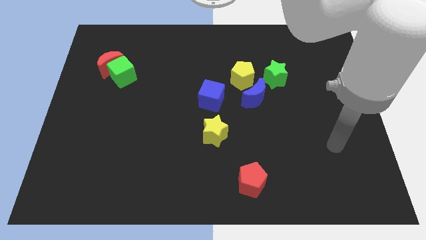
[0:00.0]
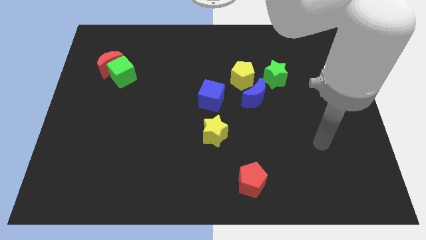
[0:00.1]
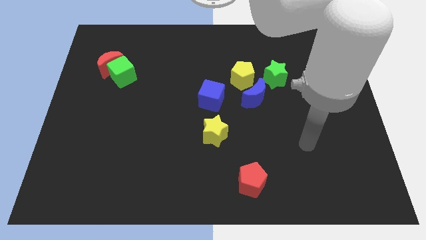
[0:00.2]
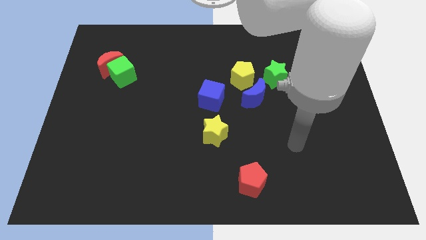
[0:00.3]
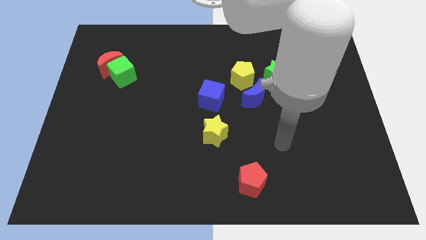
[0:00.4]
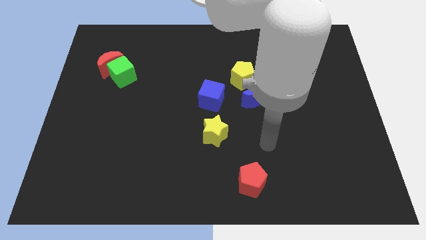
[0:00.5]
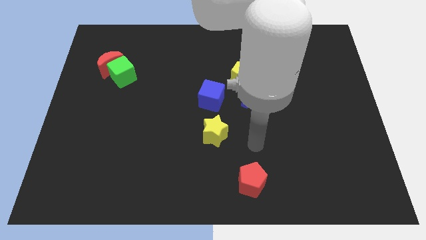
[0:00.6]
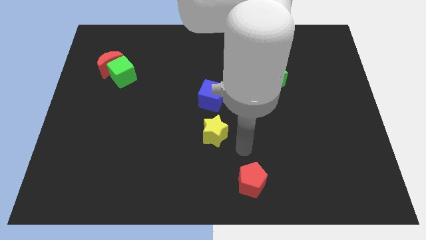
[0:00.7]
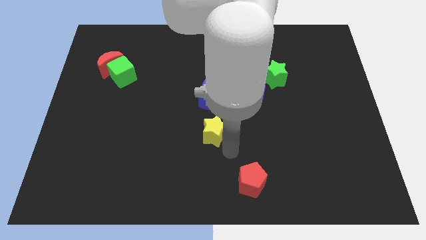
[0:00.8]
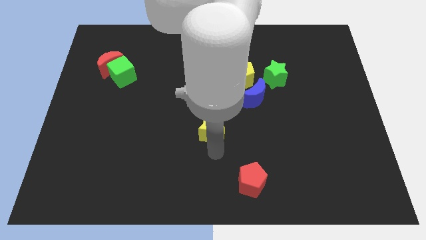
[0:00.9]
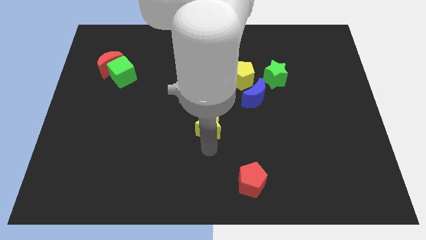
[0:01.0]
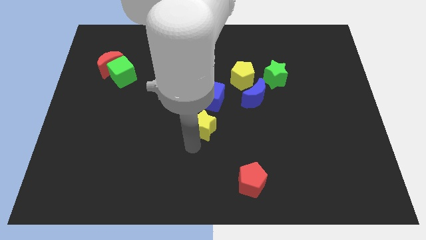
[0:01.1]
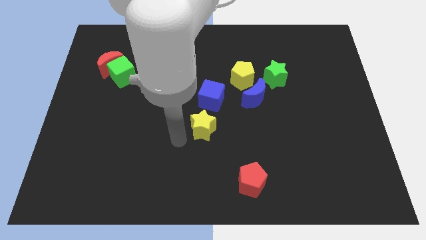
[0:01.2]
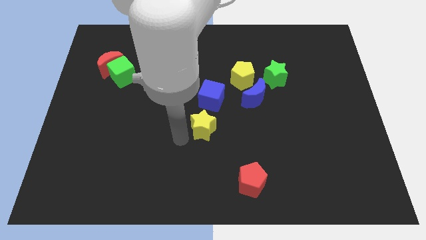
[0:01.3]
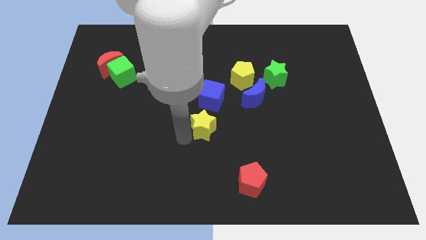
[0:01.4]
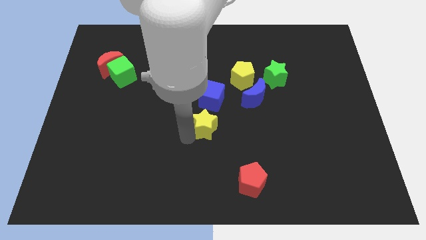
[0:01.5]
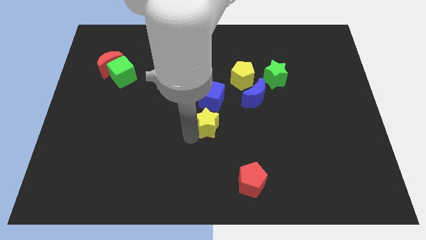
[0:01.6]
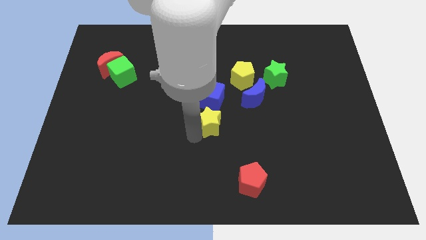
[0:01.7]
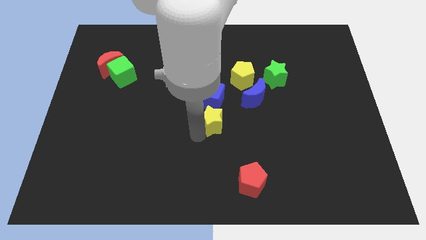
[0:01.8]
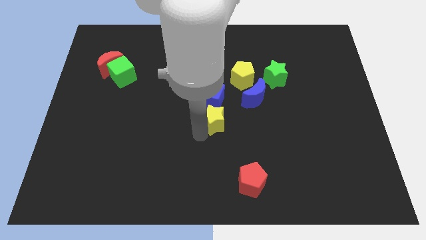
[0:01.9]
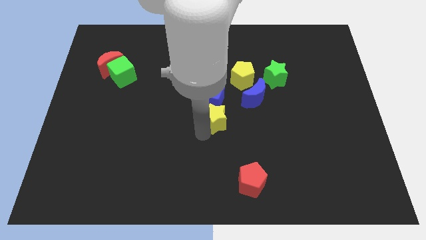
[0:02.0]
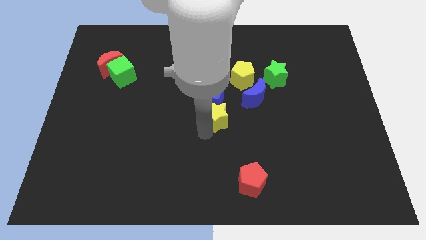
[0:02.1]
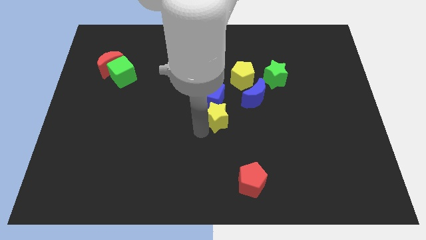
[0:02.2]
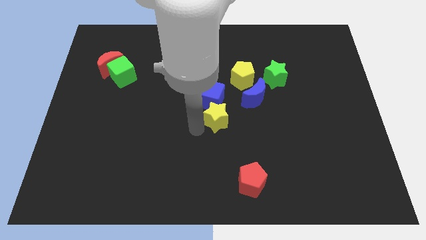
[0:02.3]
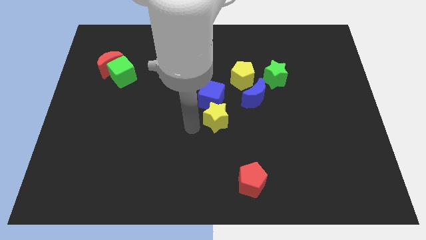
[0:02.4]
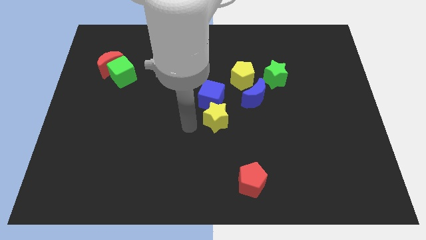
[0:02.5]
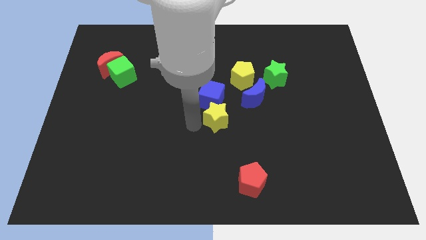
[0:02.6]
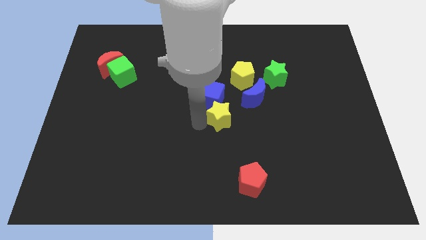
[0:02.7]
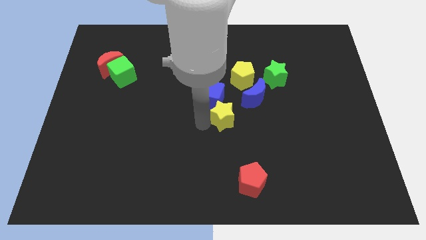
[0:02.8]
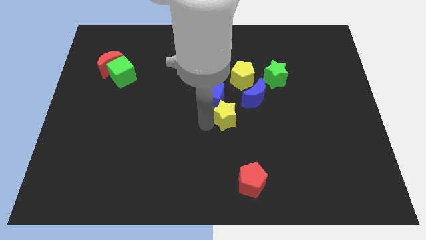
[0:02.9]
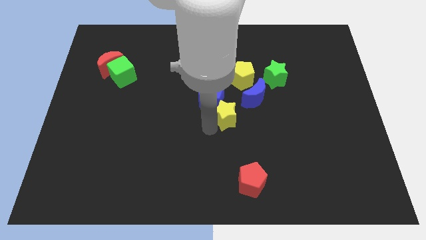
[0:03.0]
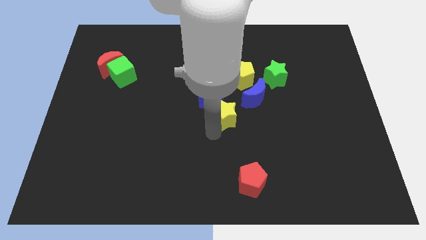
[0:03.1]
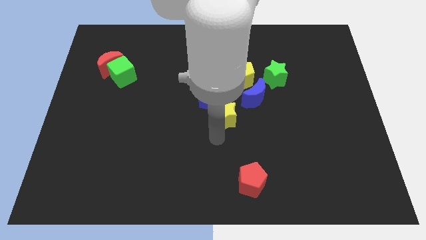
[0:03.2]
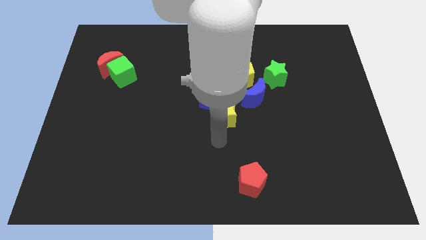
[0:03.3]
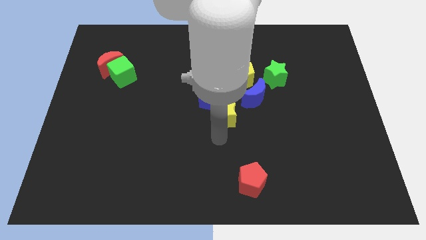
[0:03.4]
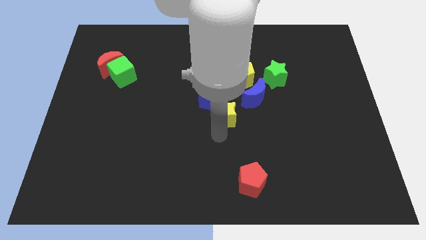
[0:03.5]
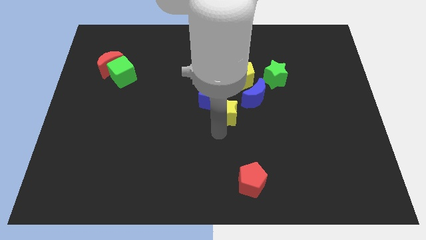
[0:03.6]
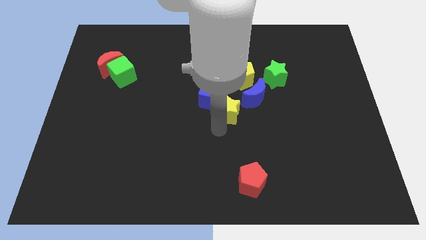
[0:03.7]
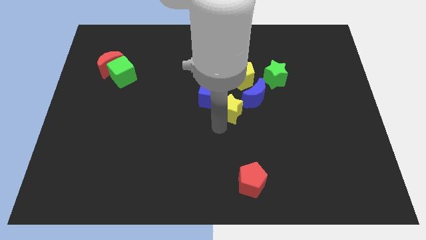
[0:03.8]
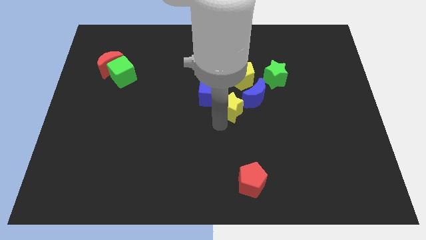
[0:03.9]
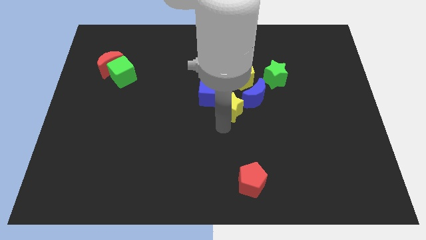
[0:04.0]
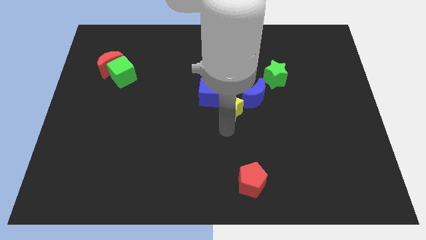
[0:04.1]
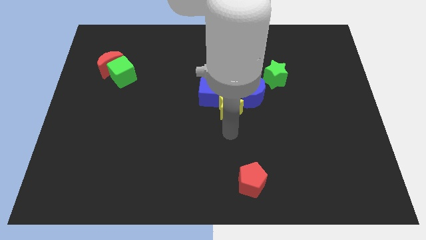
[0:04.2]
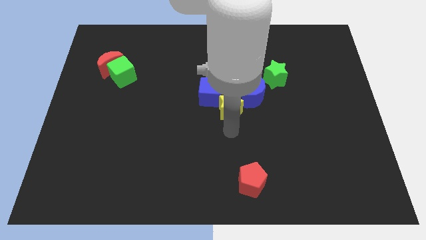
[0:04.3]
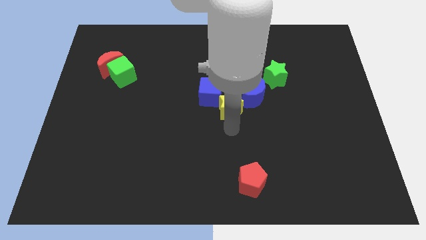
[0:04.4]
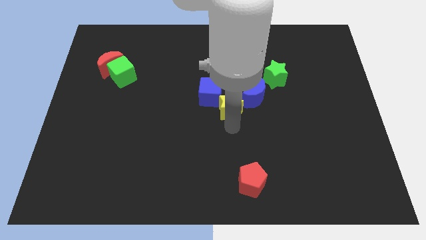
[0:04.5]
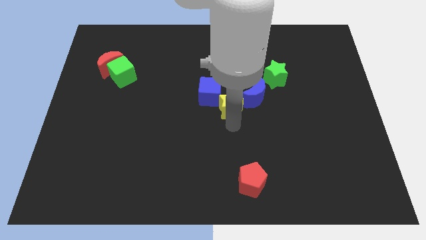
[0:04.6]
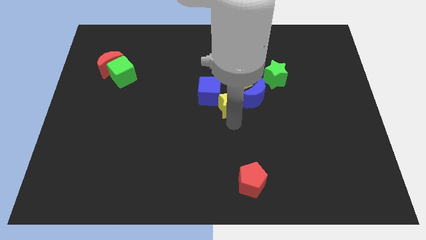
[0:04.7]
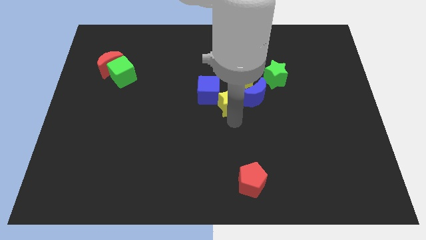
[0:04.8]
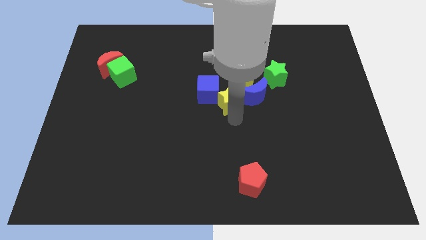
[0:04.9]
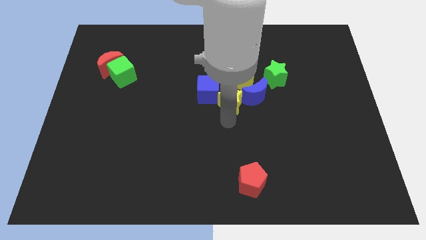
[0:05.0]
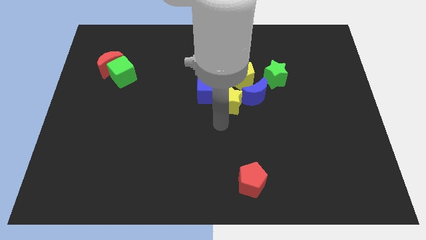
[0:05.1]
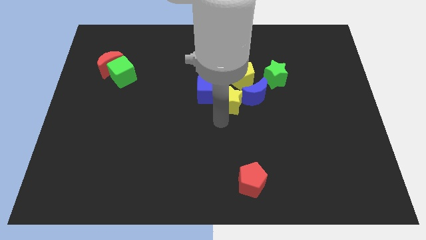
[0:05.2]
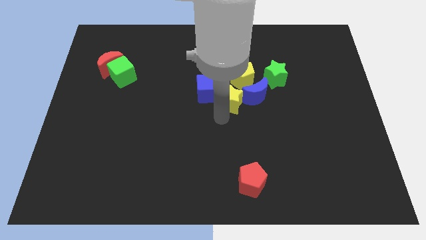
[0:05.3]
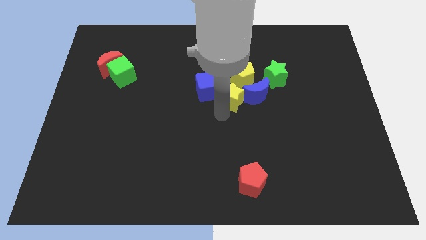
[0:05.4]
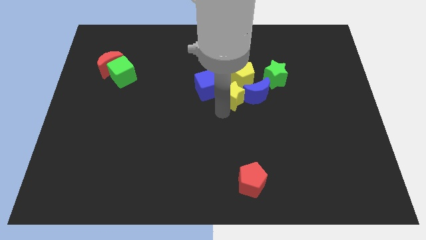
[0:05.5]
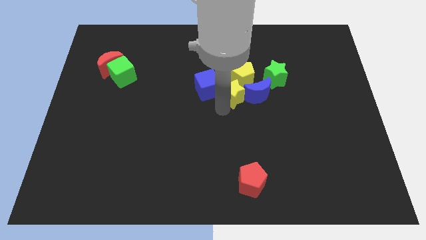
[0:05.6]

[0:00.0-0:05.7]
push the yellow star to the yellow pentagon

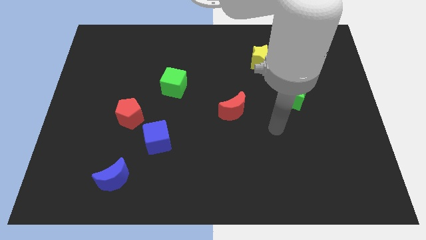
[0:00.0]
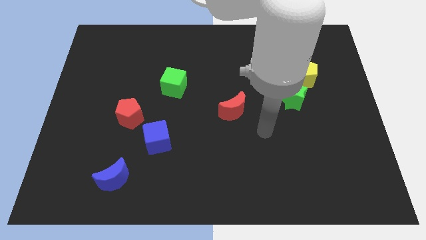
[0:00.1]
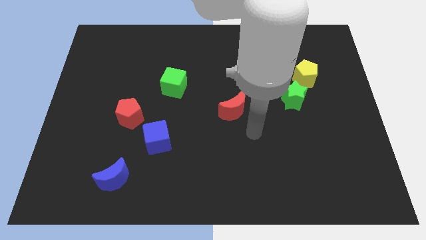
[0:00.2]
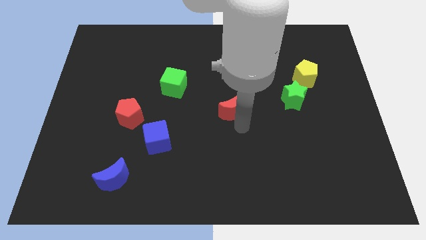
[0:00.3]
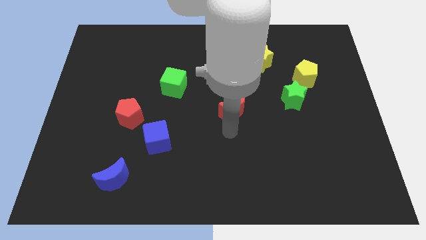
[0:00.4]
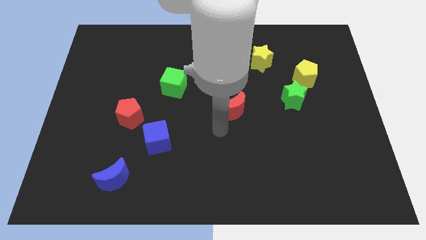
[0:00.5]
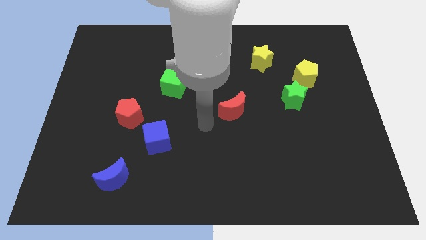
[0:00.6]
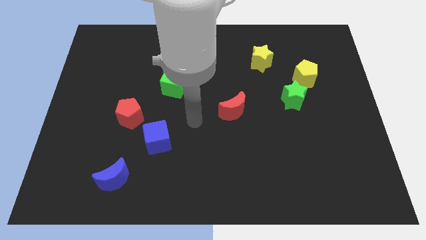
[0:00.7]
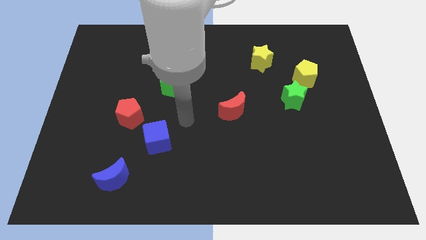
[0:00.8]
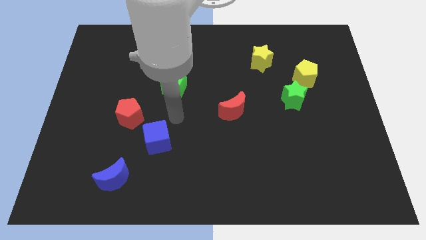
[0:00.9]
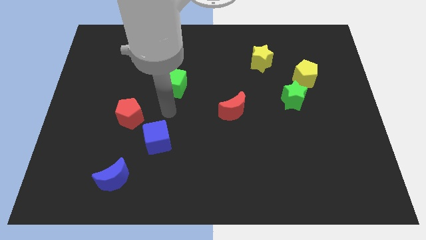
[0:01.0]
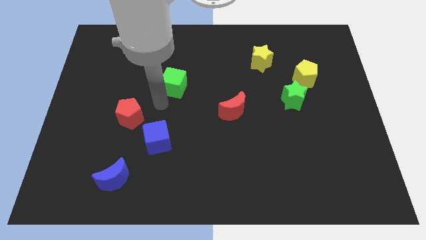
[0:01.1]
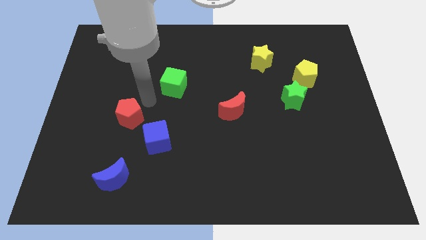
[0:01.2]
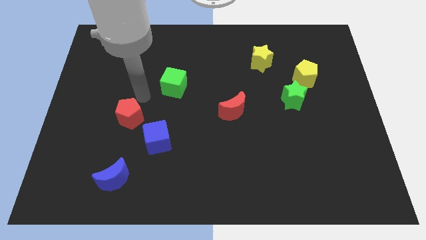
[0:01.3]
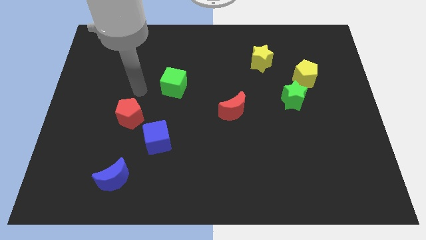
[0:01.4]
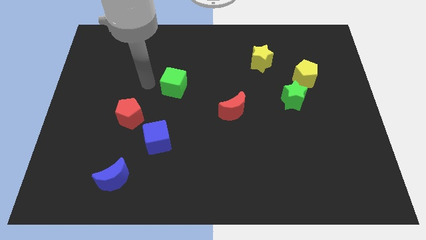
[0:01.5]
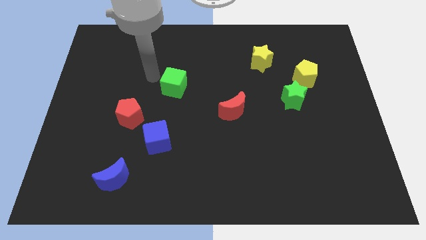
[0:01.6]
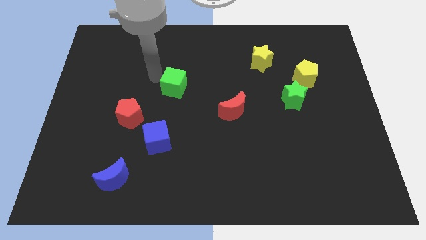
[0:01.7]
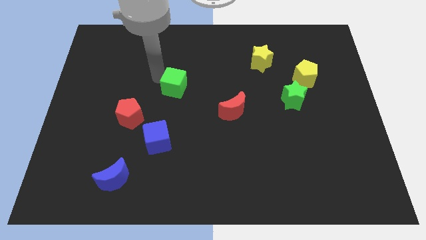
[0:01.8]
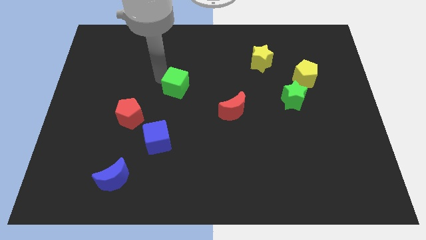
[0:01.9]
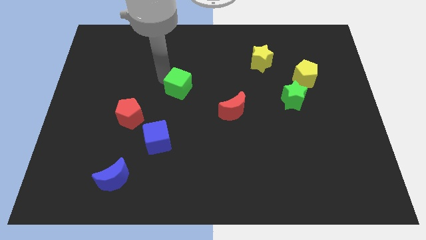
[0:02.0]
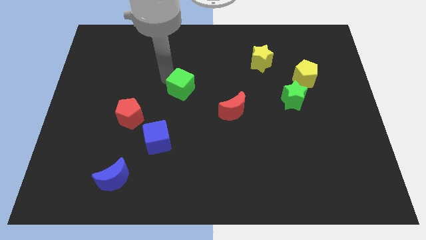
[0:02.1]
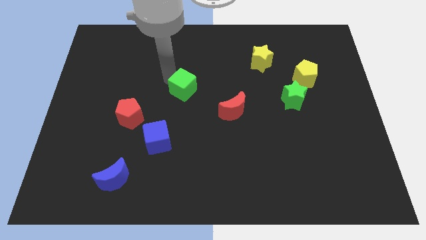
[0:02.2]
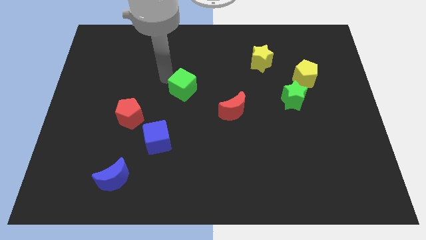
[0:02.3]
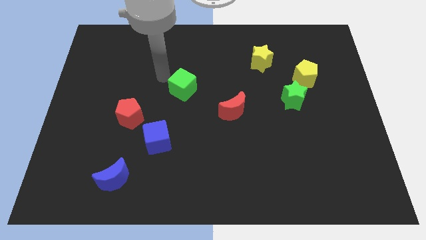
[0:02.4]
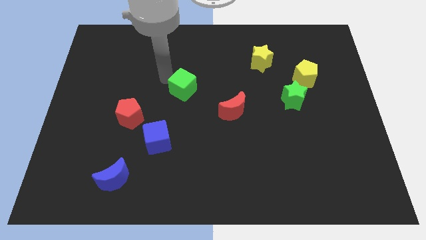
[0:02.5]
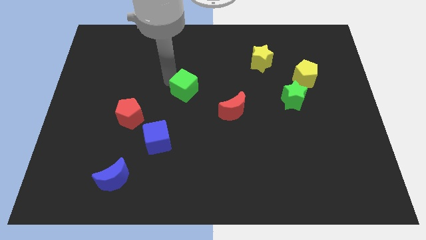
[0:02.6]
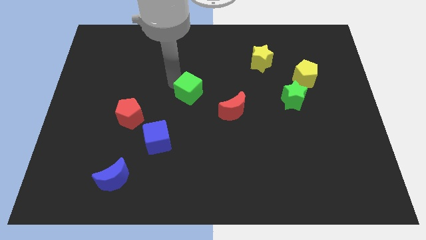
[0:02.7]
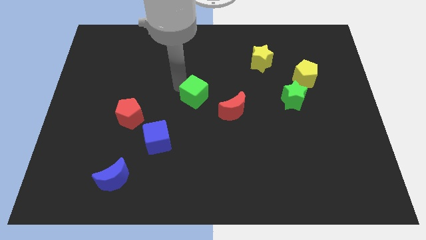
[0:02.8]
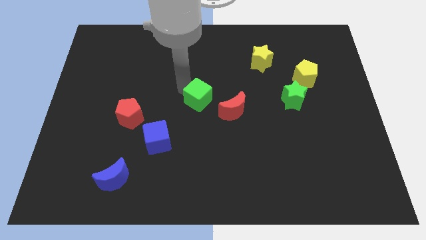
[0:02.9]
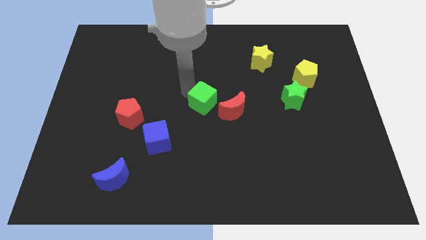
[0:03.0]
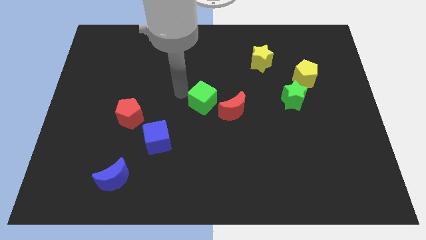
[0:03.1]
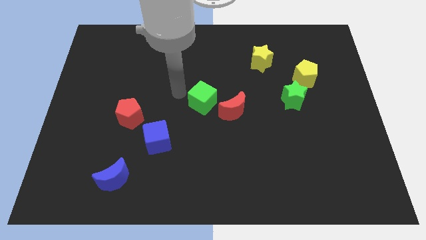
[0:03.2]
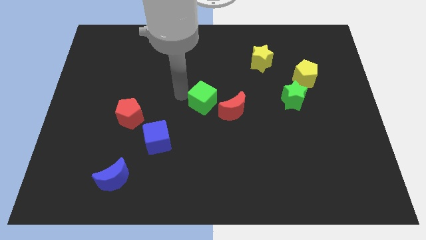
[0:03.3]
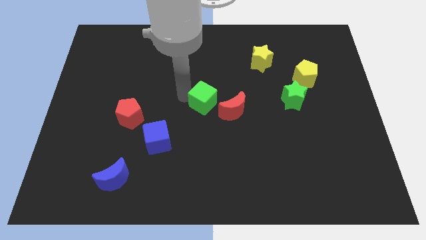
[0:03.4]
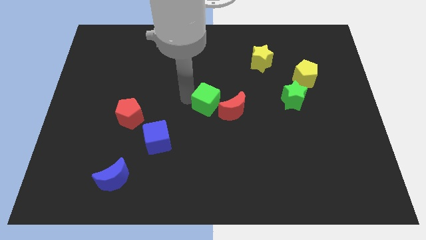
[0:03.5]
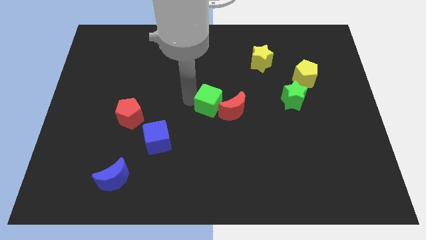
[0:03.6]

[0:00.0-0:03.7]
slide the green cube next to the red moon
